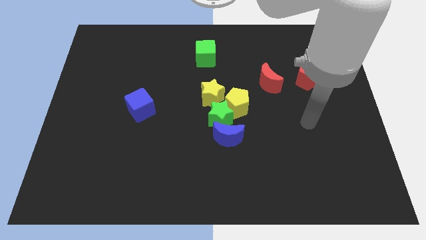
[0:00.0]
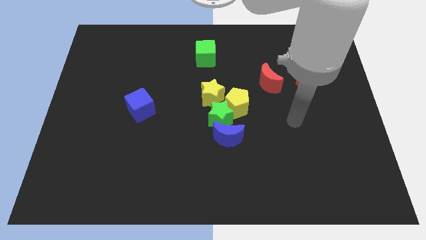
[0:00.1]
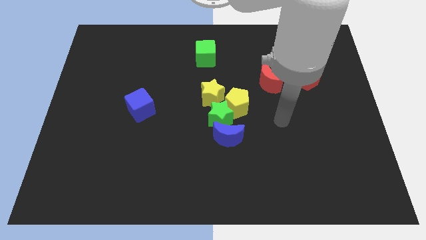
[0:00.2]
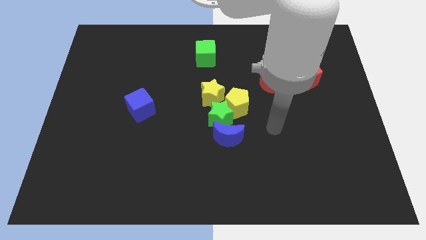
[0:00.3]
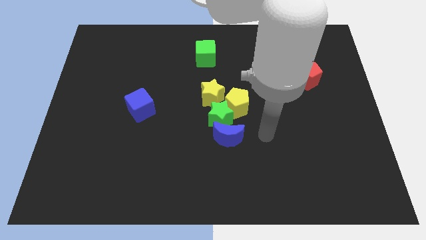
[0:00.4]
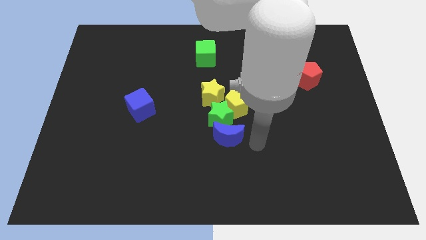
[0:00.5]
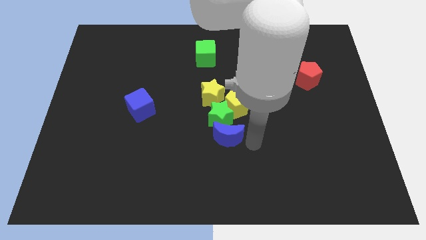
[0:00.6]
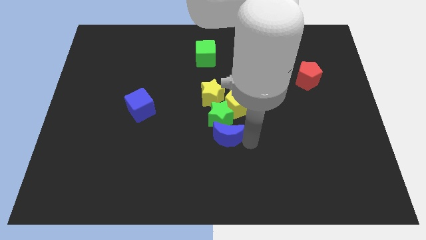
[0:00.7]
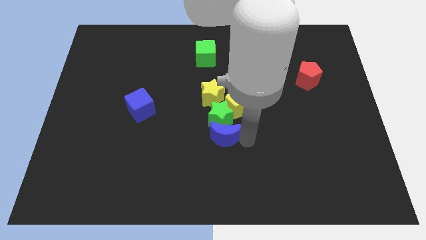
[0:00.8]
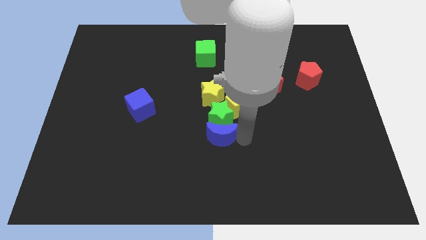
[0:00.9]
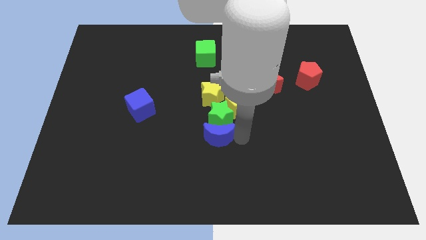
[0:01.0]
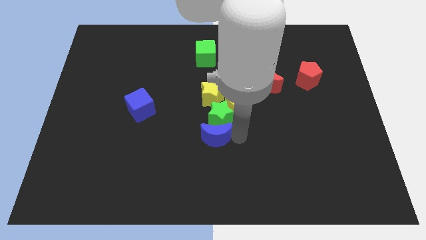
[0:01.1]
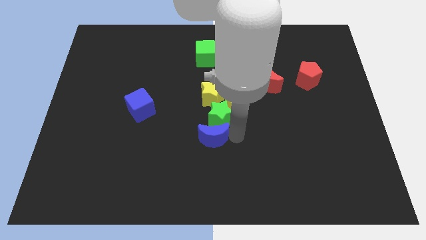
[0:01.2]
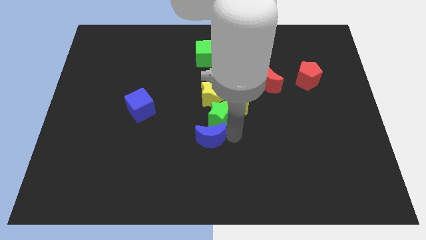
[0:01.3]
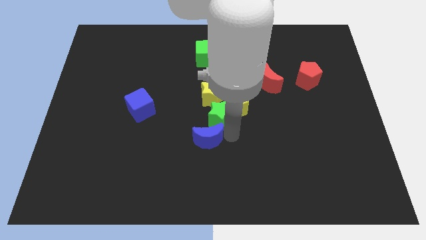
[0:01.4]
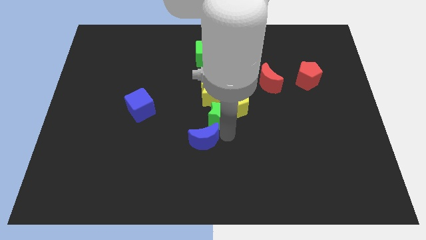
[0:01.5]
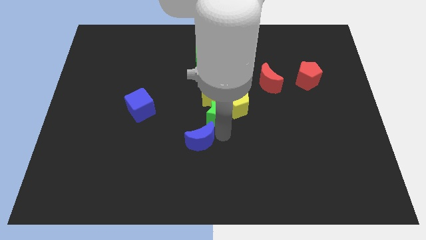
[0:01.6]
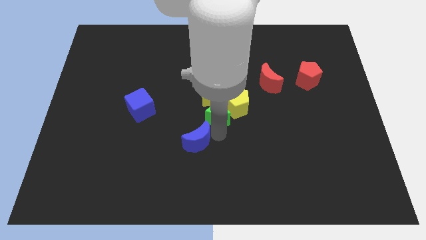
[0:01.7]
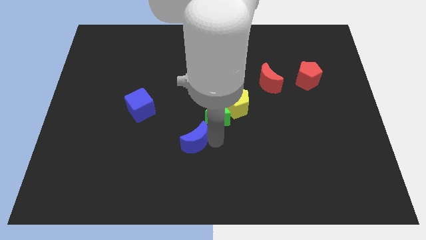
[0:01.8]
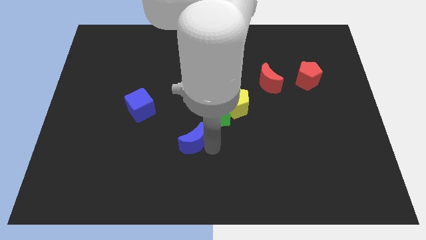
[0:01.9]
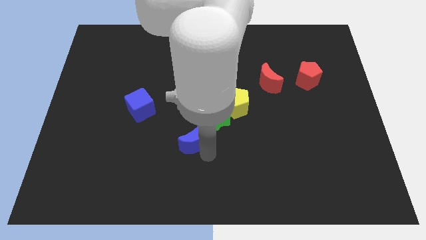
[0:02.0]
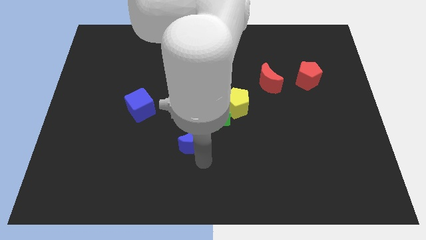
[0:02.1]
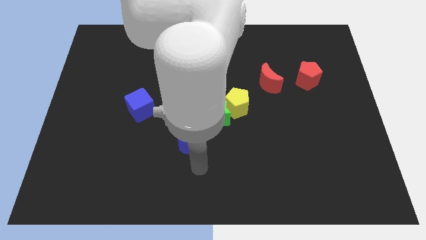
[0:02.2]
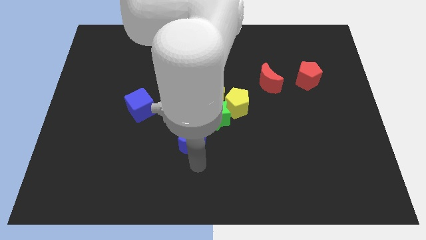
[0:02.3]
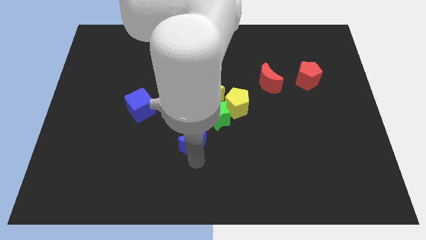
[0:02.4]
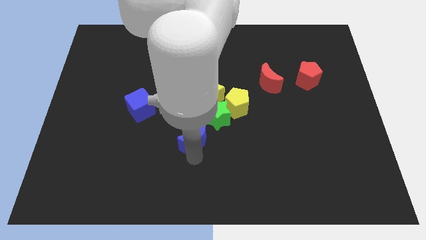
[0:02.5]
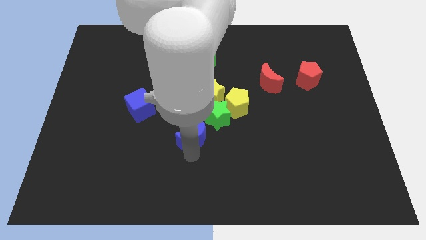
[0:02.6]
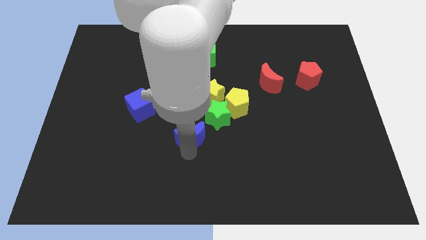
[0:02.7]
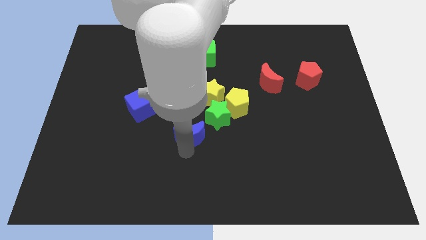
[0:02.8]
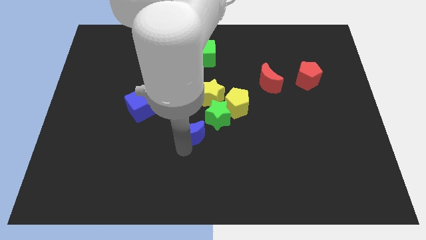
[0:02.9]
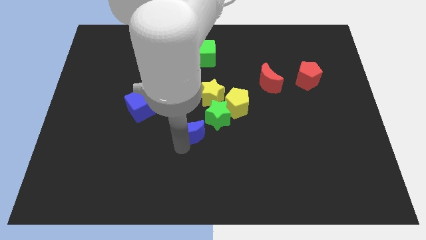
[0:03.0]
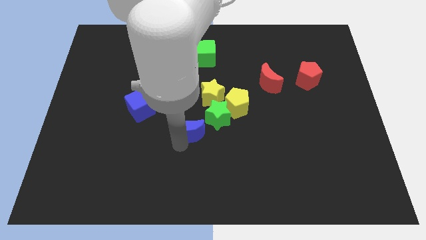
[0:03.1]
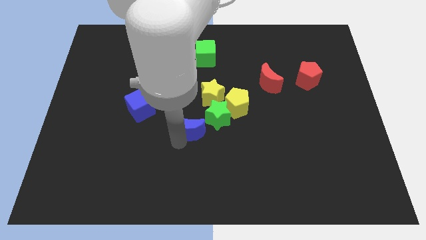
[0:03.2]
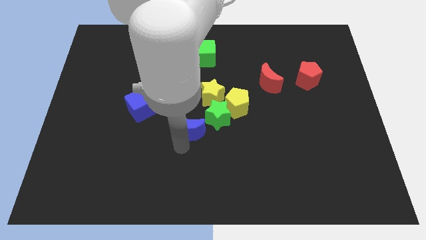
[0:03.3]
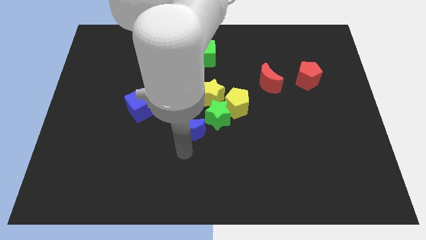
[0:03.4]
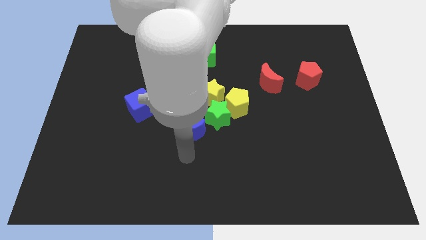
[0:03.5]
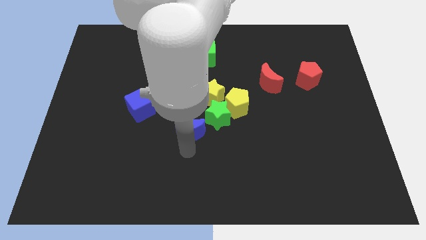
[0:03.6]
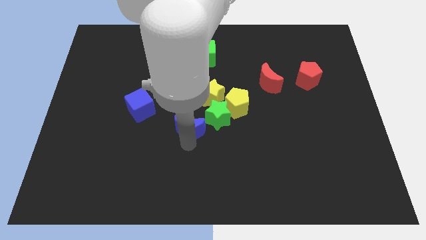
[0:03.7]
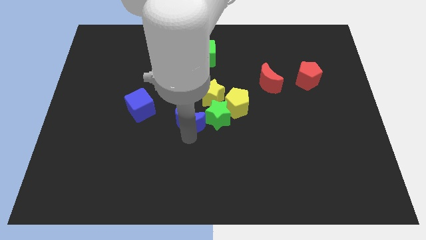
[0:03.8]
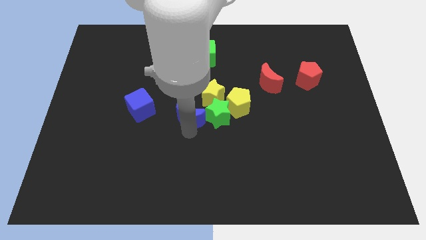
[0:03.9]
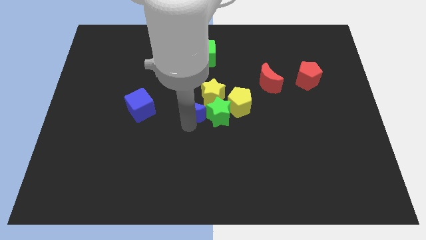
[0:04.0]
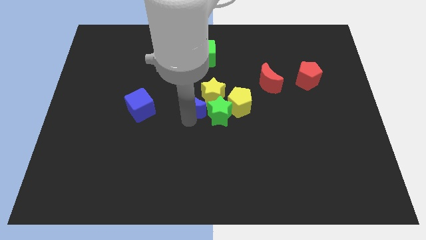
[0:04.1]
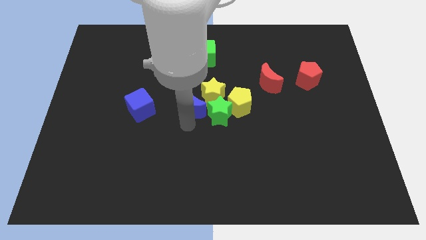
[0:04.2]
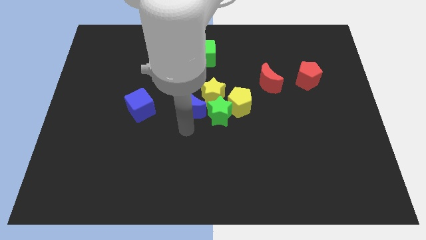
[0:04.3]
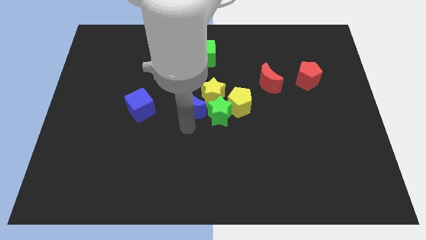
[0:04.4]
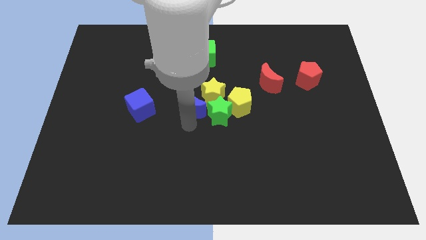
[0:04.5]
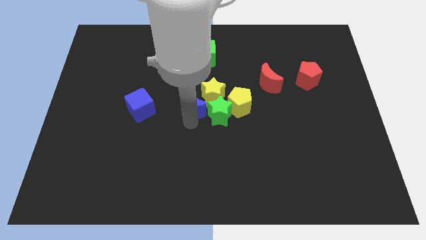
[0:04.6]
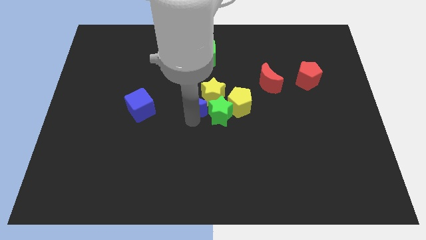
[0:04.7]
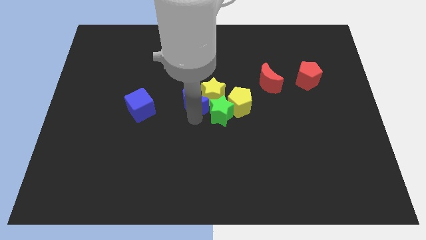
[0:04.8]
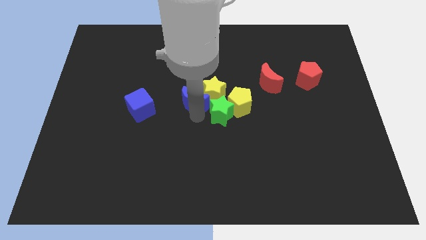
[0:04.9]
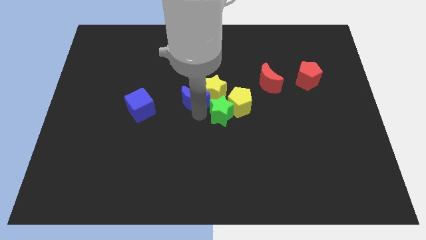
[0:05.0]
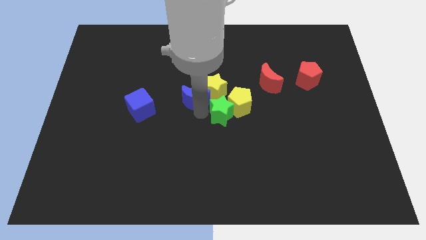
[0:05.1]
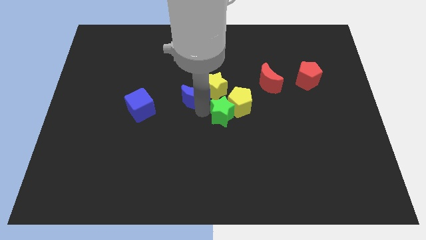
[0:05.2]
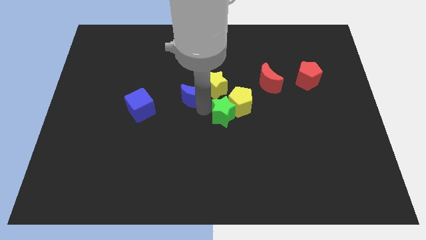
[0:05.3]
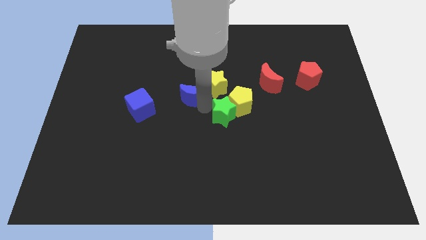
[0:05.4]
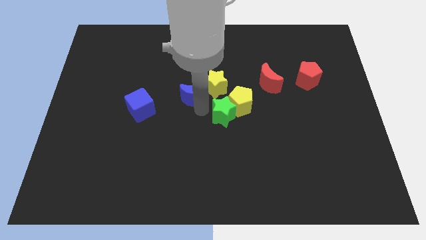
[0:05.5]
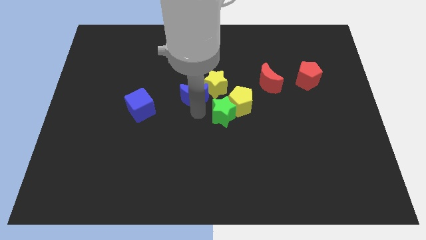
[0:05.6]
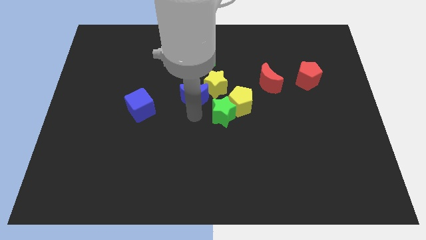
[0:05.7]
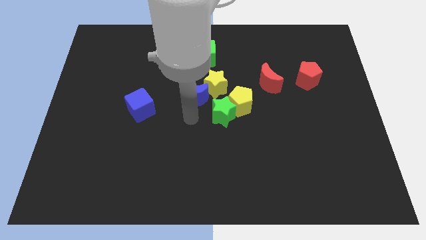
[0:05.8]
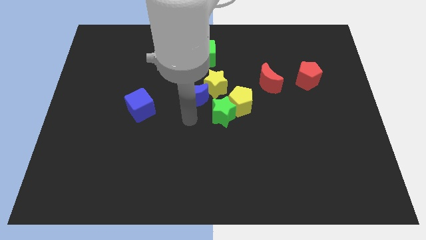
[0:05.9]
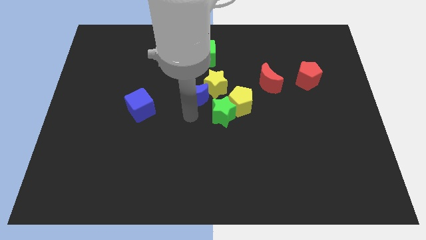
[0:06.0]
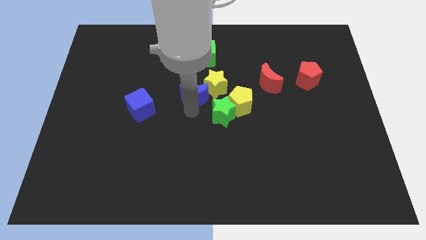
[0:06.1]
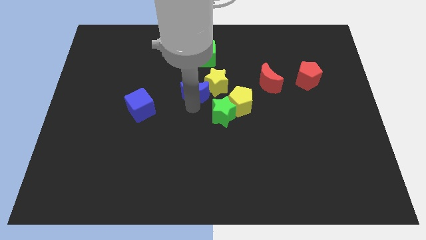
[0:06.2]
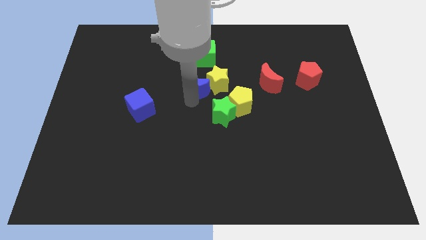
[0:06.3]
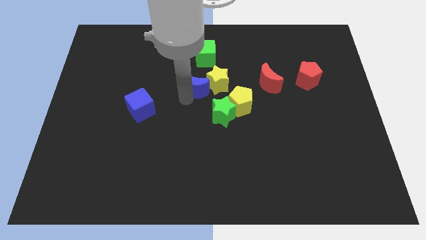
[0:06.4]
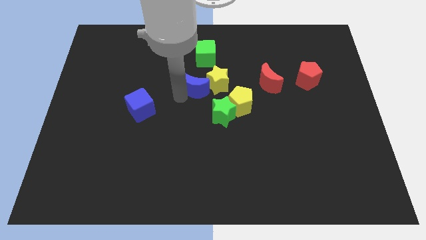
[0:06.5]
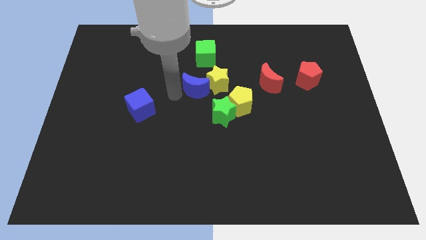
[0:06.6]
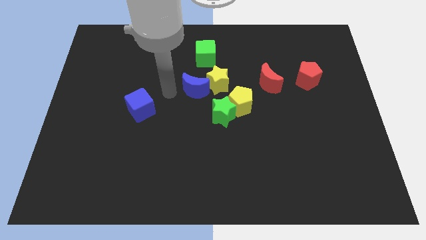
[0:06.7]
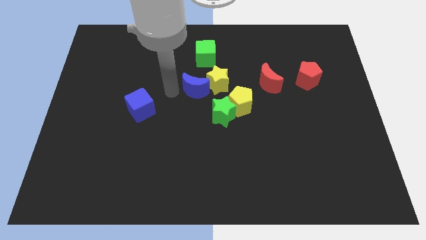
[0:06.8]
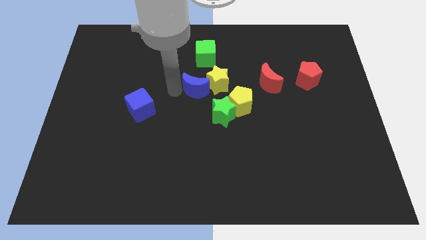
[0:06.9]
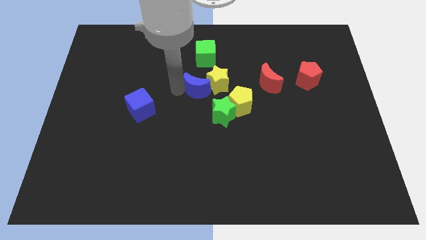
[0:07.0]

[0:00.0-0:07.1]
push the blue moon to the top left side of the yellow pentagon
